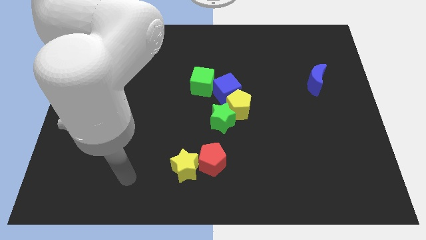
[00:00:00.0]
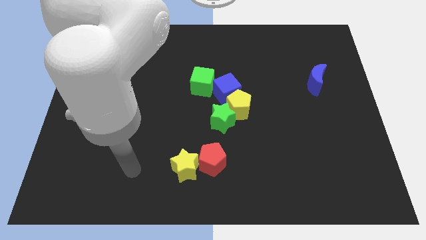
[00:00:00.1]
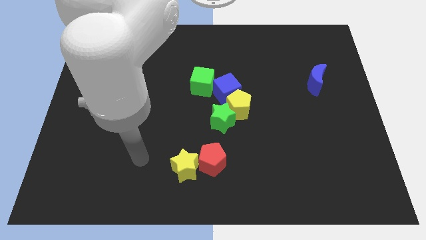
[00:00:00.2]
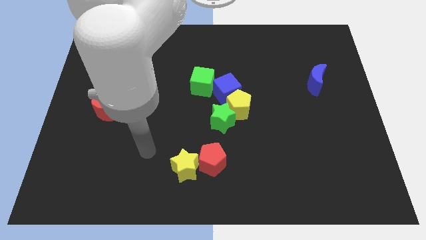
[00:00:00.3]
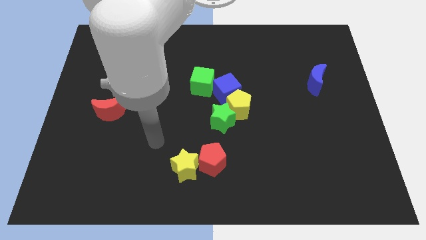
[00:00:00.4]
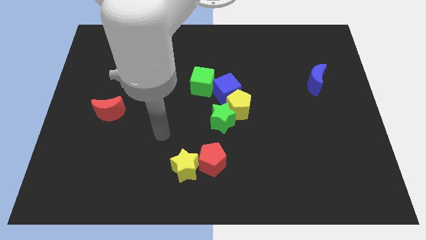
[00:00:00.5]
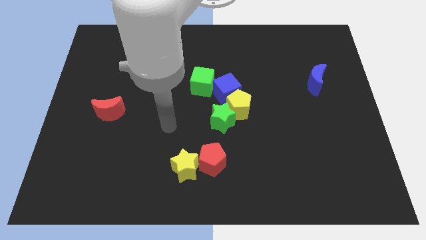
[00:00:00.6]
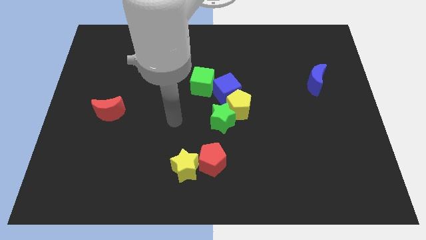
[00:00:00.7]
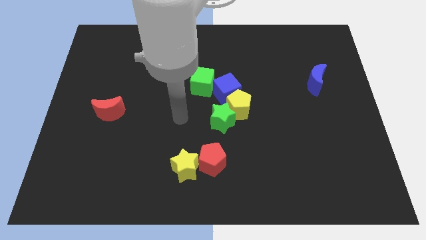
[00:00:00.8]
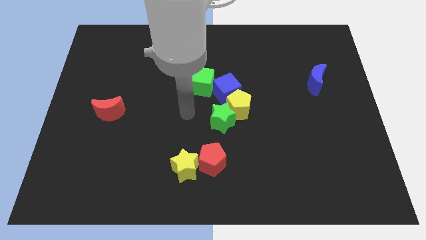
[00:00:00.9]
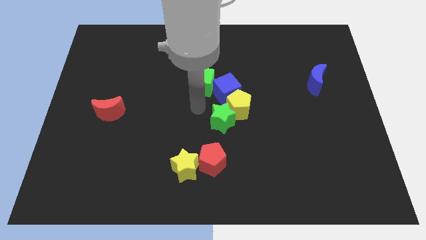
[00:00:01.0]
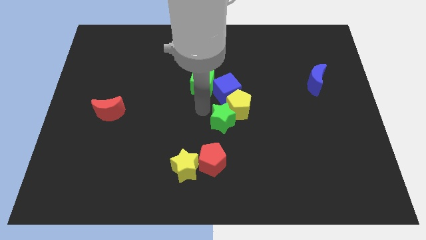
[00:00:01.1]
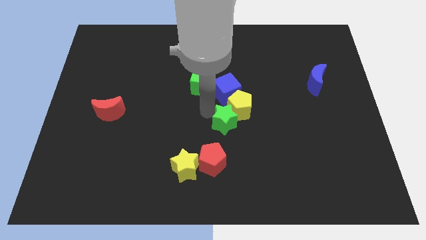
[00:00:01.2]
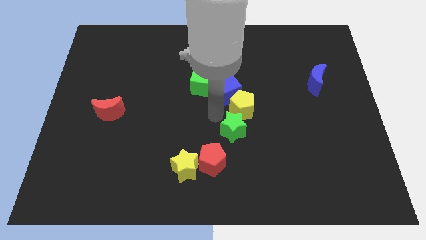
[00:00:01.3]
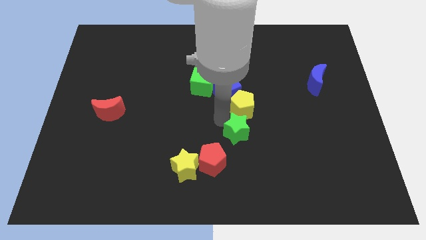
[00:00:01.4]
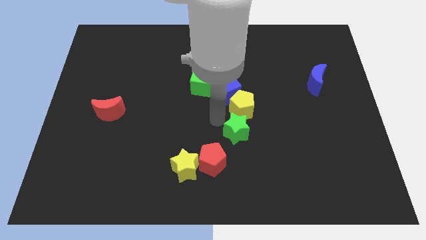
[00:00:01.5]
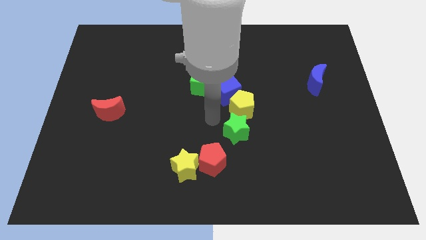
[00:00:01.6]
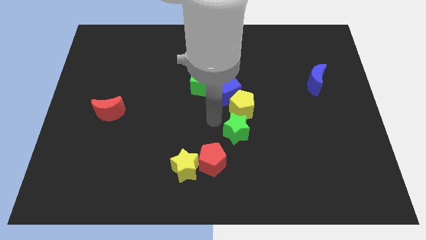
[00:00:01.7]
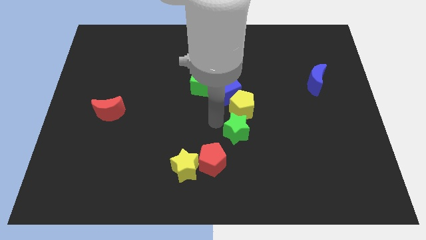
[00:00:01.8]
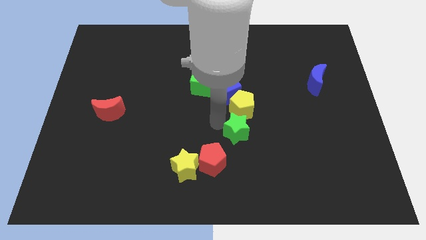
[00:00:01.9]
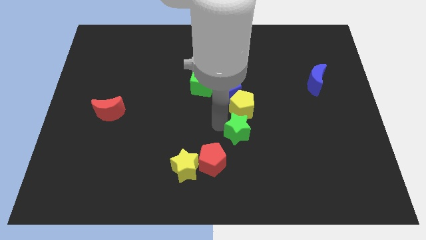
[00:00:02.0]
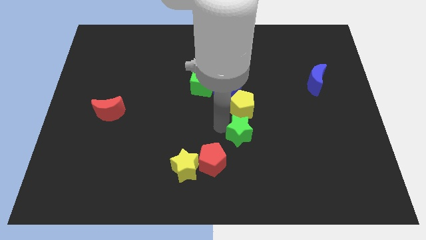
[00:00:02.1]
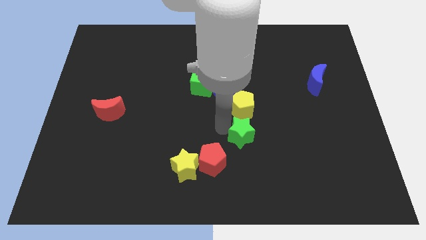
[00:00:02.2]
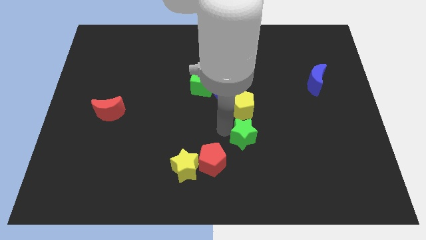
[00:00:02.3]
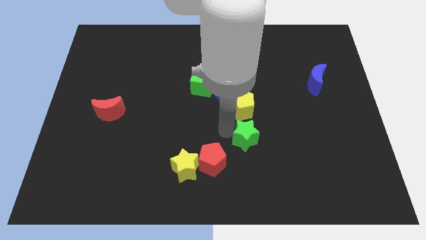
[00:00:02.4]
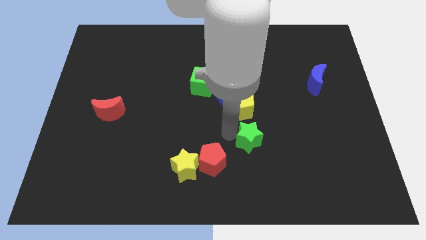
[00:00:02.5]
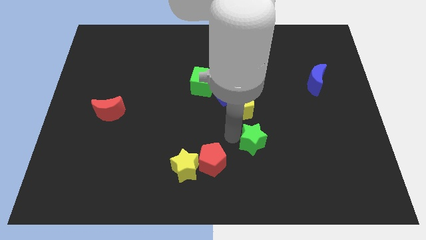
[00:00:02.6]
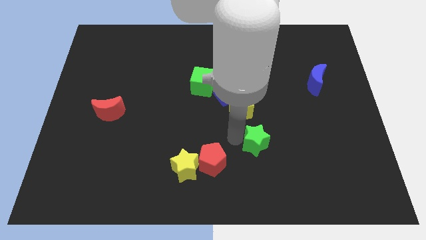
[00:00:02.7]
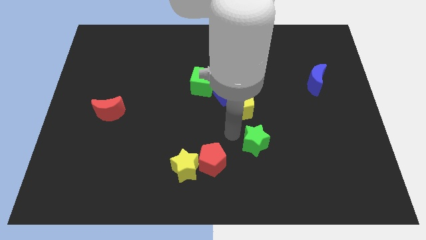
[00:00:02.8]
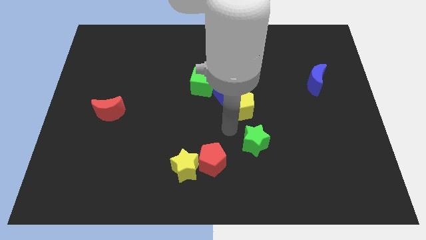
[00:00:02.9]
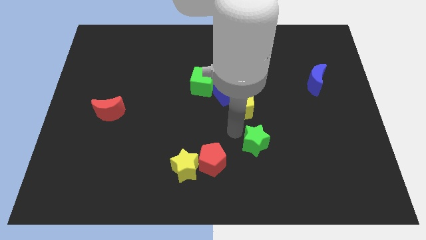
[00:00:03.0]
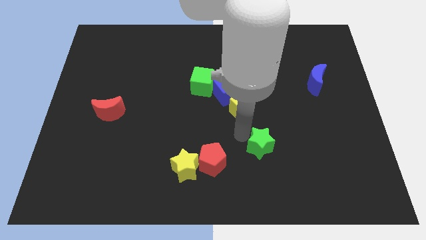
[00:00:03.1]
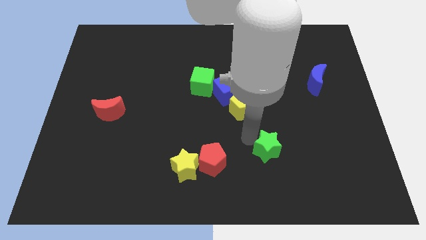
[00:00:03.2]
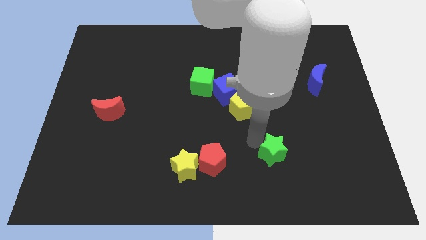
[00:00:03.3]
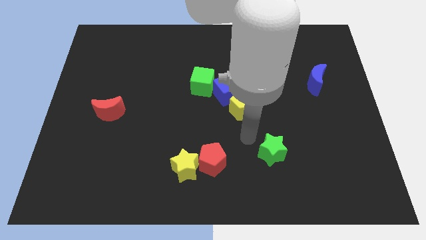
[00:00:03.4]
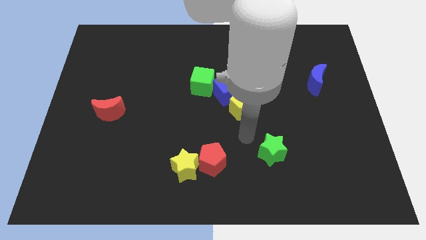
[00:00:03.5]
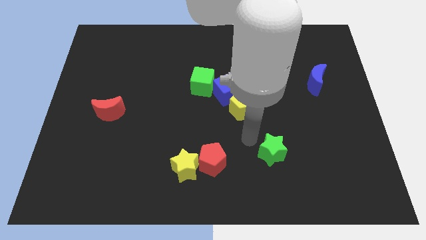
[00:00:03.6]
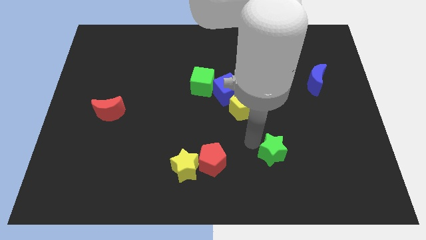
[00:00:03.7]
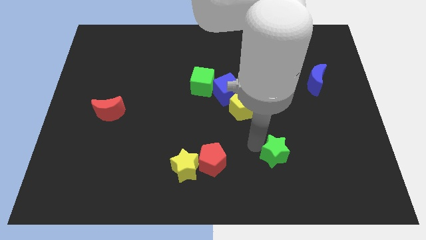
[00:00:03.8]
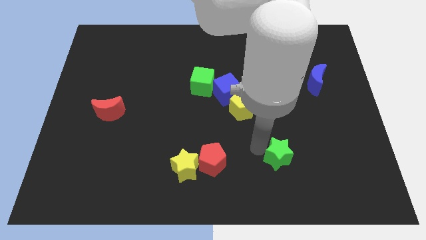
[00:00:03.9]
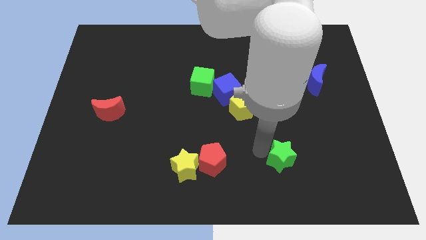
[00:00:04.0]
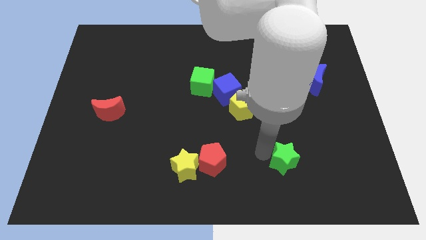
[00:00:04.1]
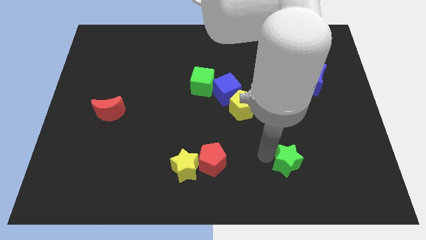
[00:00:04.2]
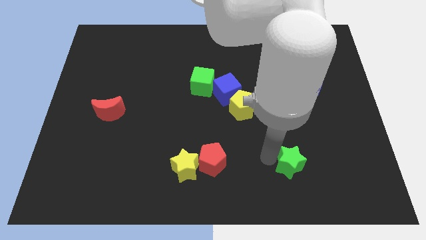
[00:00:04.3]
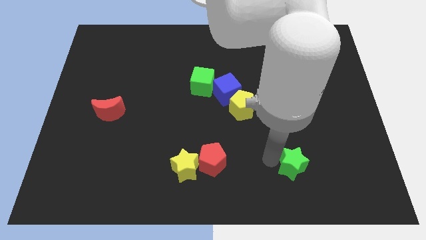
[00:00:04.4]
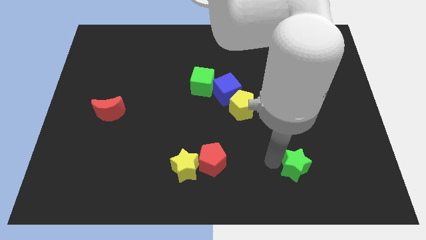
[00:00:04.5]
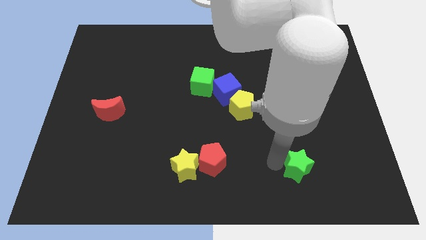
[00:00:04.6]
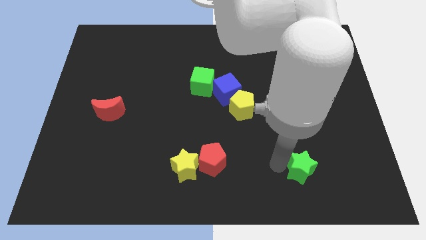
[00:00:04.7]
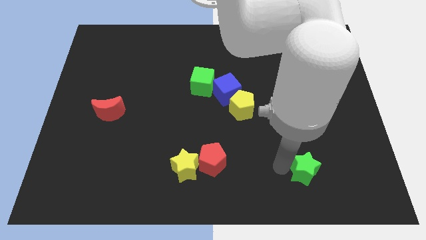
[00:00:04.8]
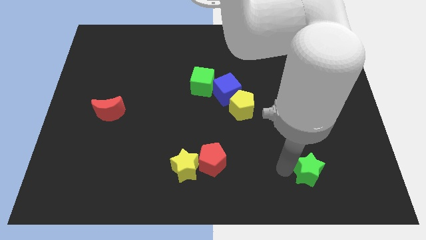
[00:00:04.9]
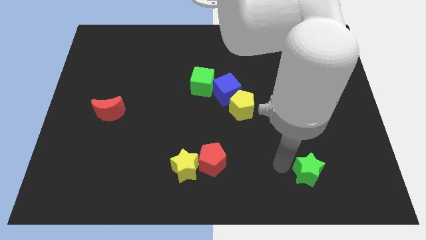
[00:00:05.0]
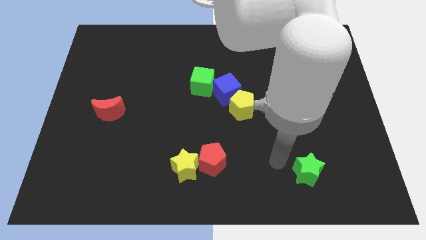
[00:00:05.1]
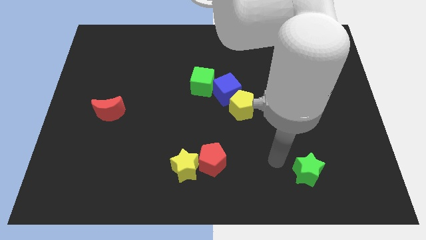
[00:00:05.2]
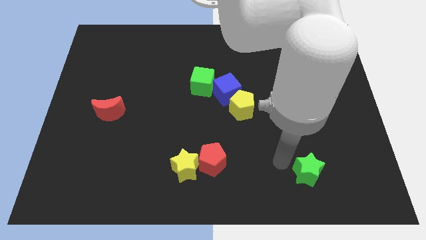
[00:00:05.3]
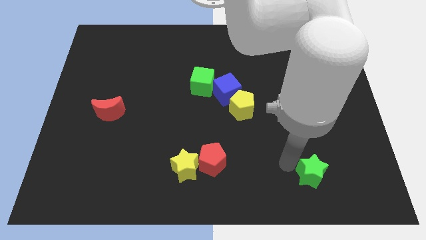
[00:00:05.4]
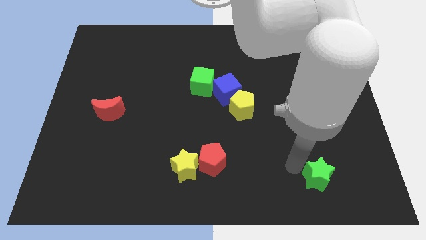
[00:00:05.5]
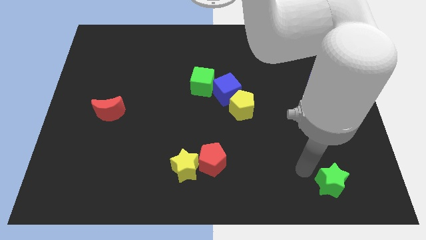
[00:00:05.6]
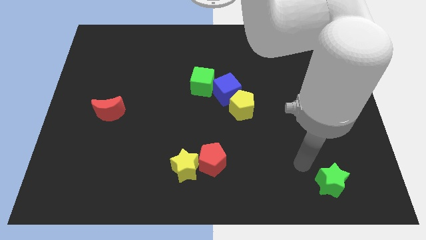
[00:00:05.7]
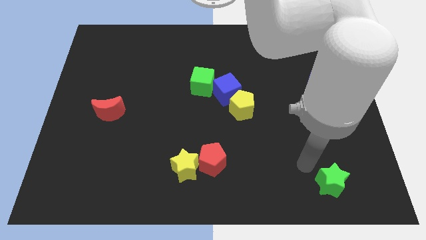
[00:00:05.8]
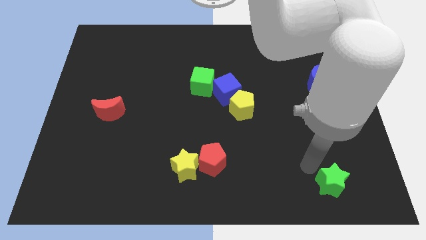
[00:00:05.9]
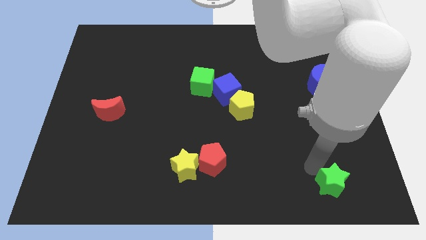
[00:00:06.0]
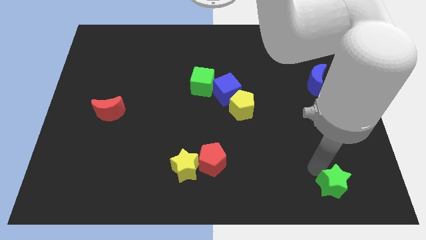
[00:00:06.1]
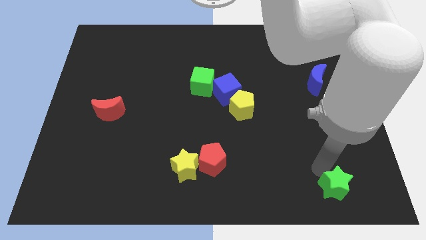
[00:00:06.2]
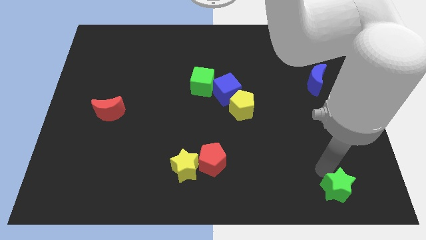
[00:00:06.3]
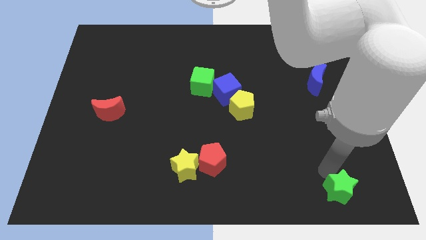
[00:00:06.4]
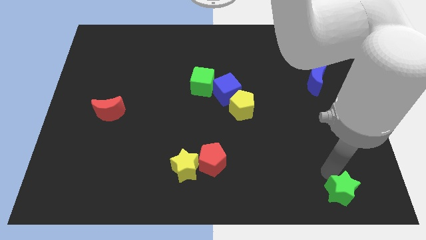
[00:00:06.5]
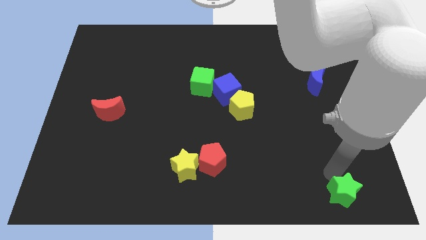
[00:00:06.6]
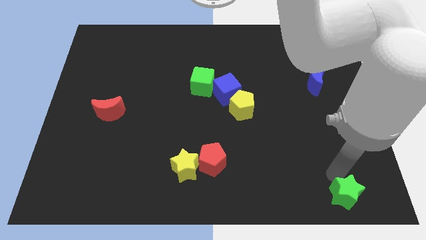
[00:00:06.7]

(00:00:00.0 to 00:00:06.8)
put the green star to the bottom right
